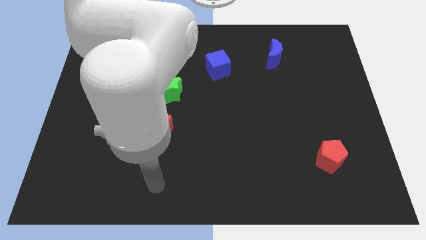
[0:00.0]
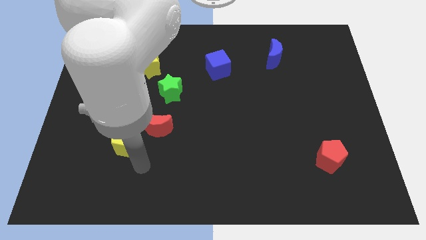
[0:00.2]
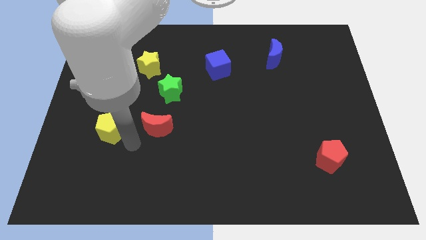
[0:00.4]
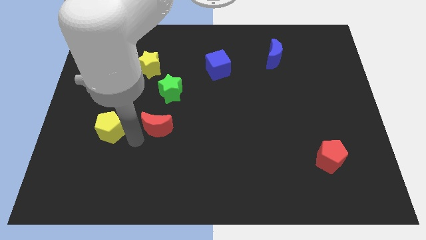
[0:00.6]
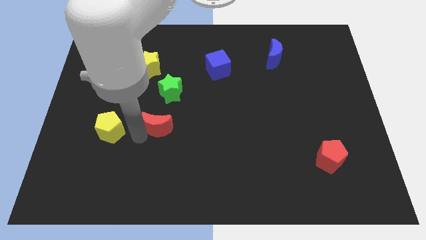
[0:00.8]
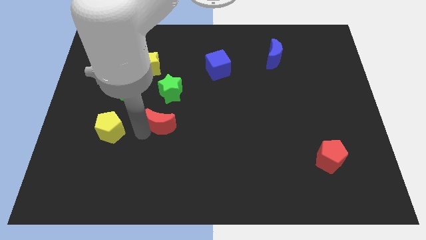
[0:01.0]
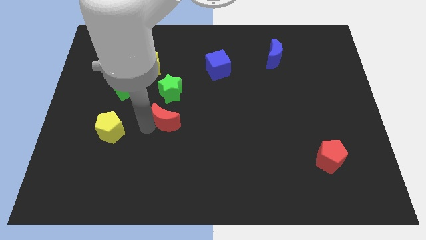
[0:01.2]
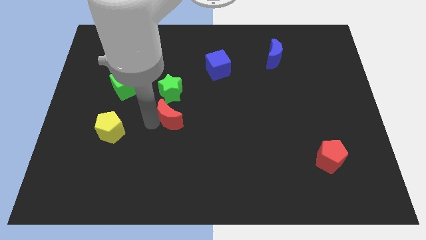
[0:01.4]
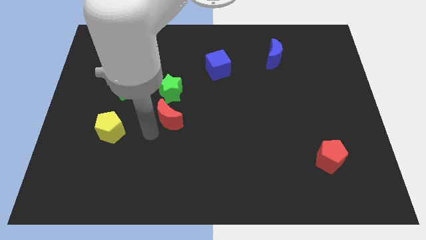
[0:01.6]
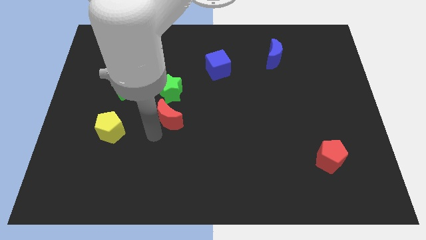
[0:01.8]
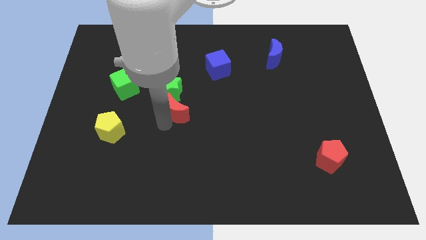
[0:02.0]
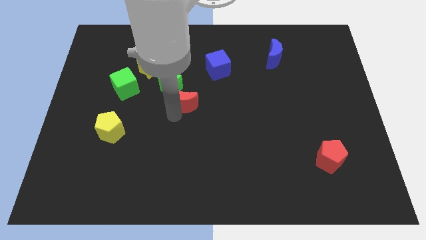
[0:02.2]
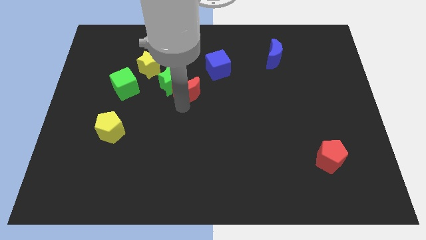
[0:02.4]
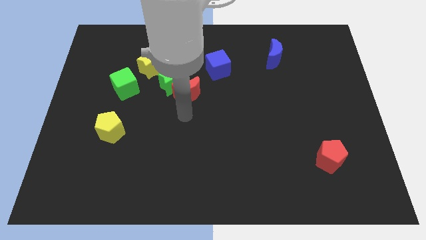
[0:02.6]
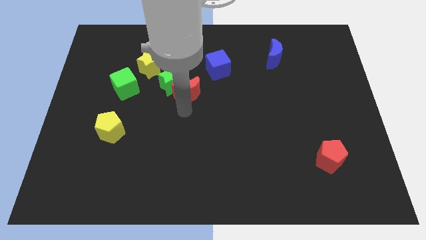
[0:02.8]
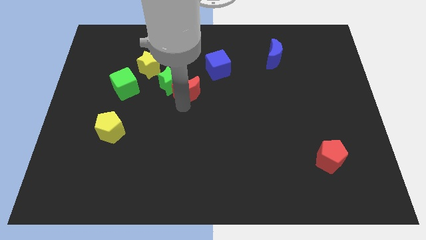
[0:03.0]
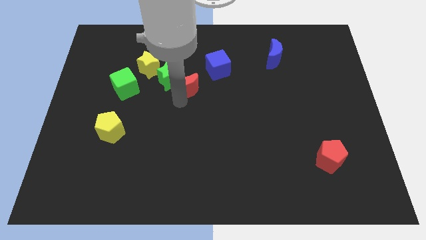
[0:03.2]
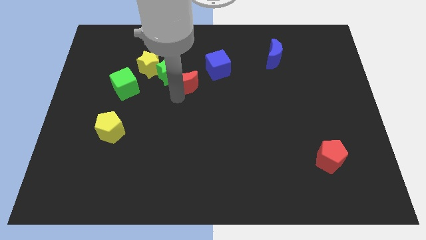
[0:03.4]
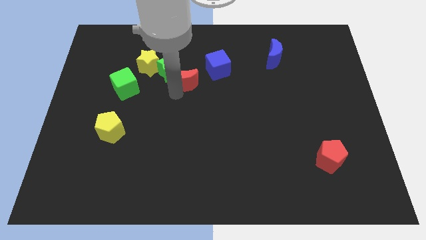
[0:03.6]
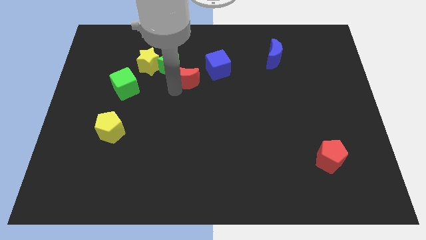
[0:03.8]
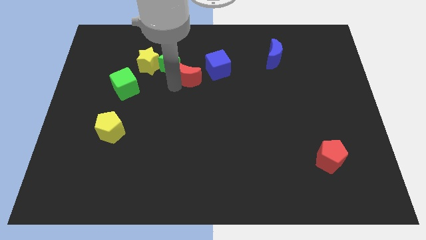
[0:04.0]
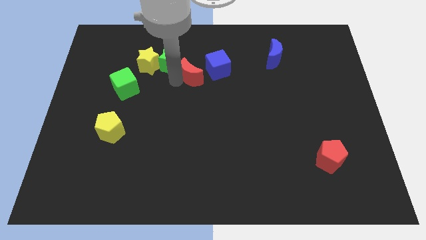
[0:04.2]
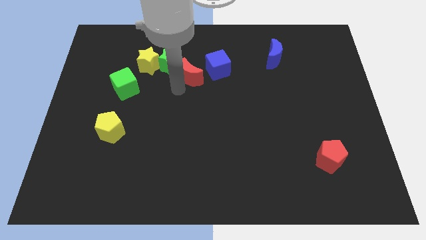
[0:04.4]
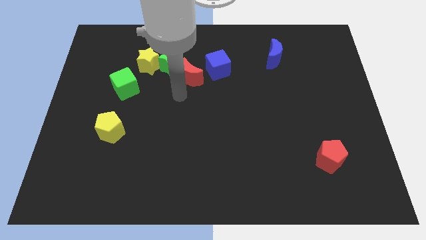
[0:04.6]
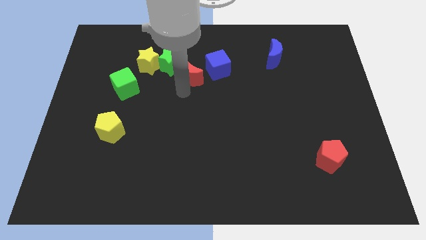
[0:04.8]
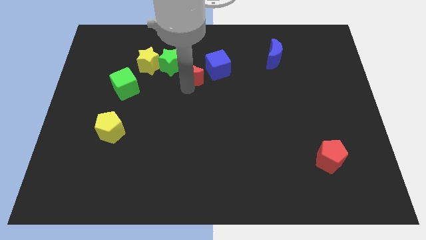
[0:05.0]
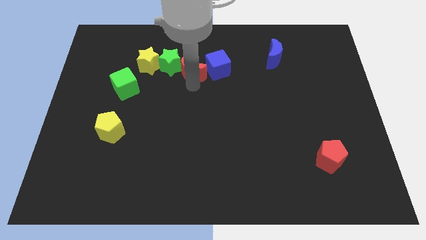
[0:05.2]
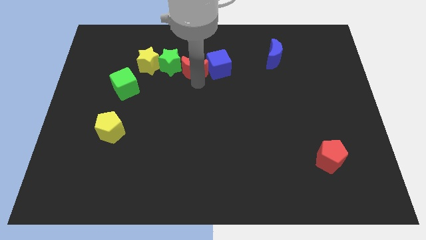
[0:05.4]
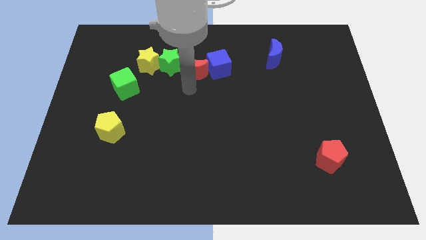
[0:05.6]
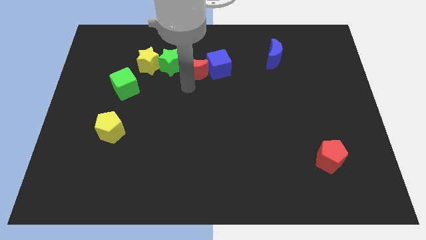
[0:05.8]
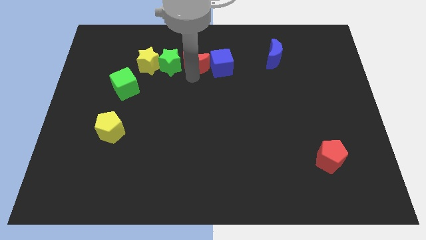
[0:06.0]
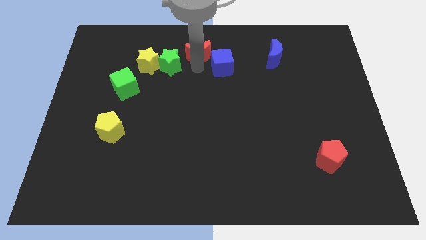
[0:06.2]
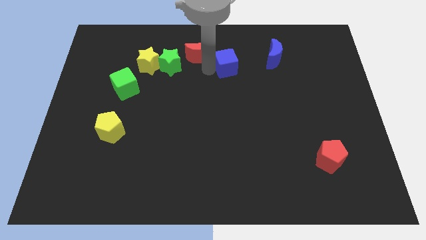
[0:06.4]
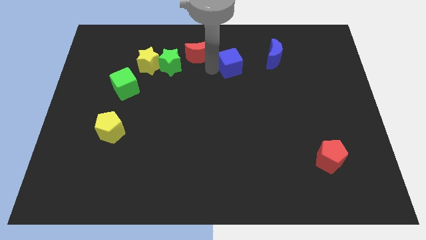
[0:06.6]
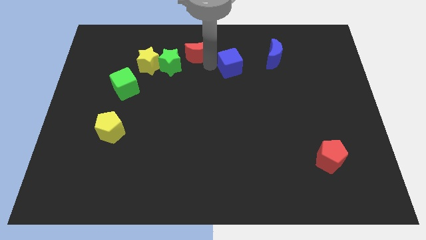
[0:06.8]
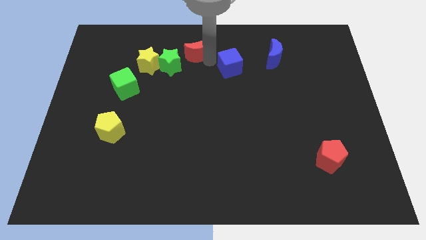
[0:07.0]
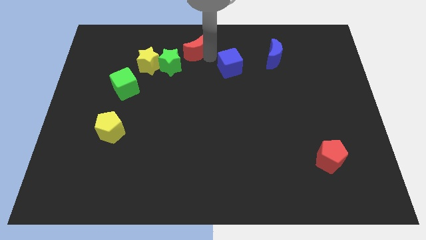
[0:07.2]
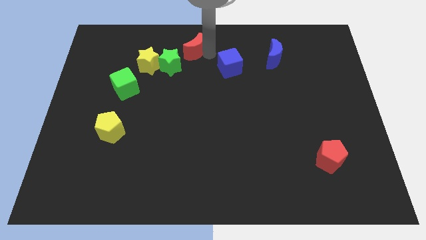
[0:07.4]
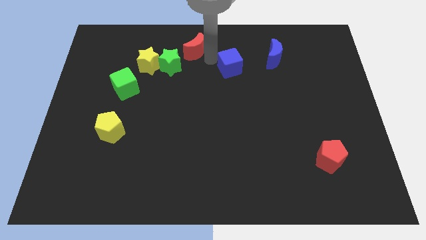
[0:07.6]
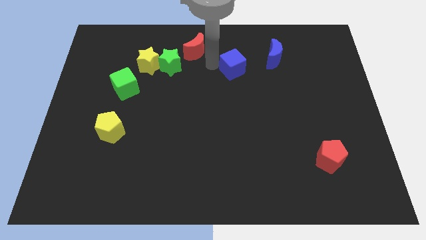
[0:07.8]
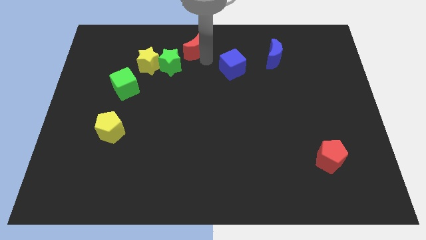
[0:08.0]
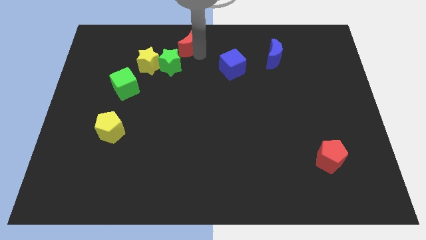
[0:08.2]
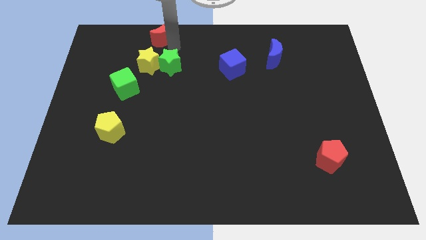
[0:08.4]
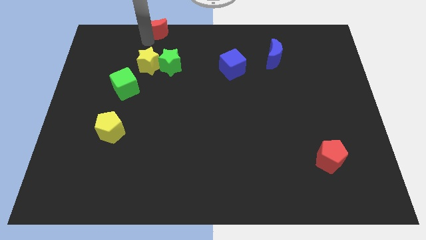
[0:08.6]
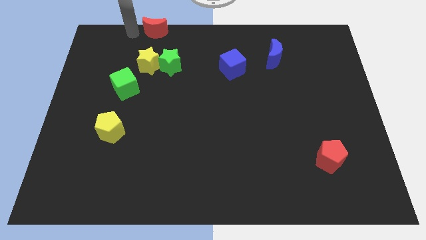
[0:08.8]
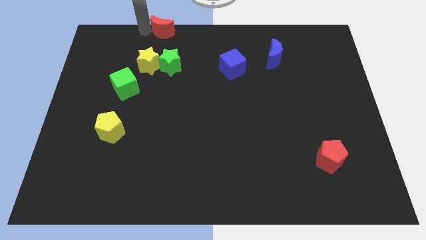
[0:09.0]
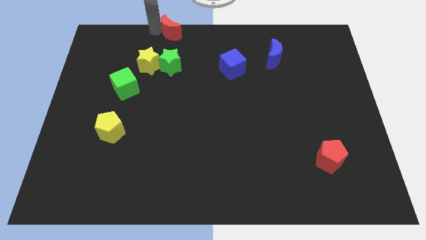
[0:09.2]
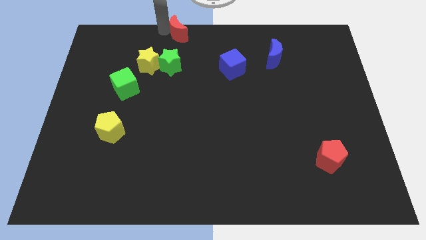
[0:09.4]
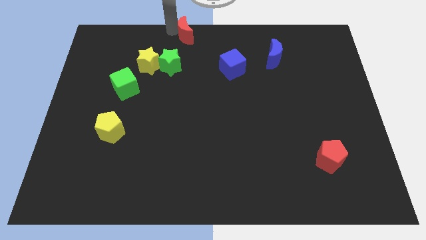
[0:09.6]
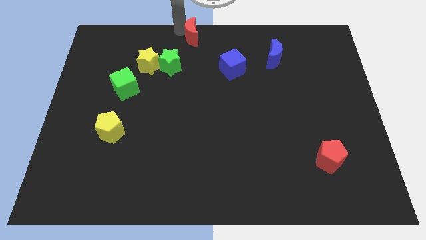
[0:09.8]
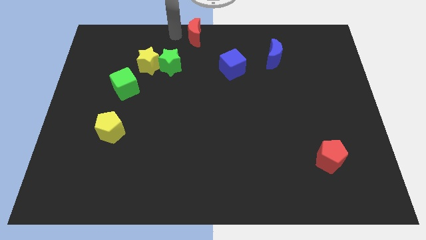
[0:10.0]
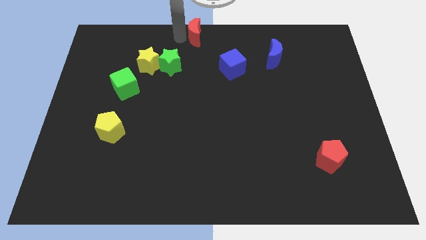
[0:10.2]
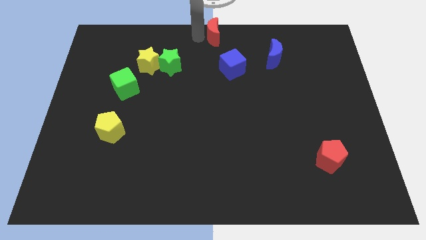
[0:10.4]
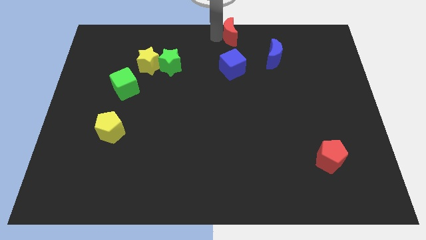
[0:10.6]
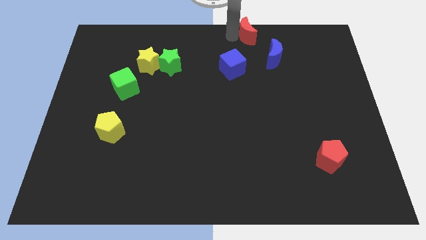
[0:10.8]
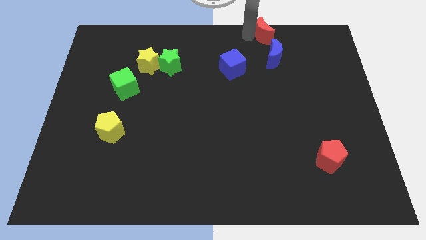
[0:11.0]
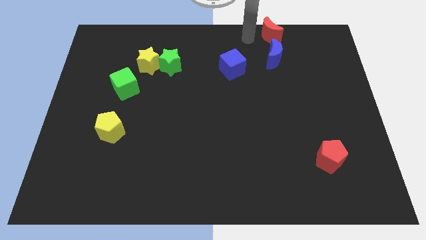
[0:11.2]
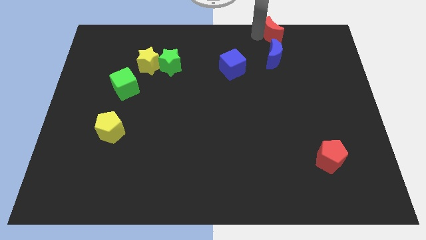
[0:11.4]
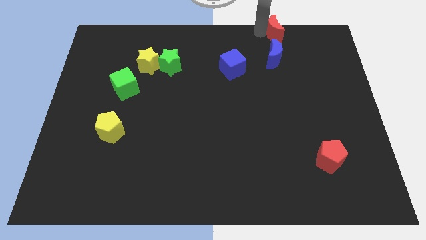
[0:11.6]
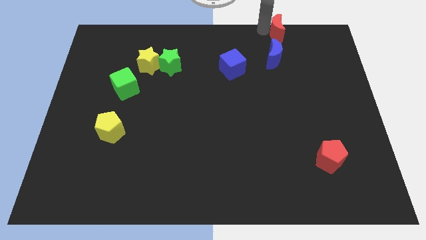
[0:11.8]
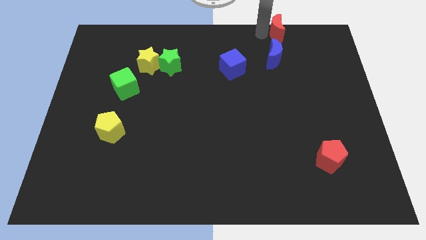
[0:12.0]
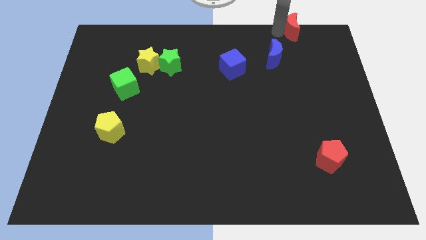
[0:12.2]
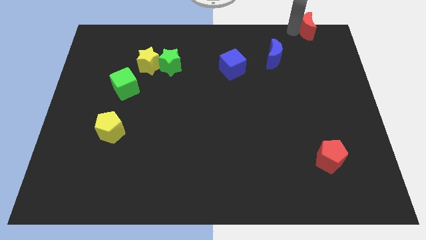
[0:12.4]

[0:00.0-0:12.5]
put the red moon to the upper right corner
